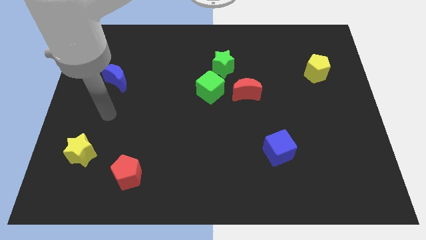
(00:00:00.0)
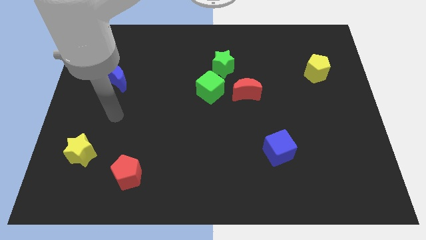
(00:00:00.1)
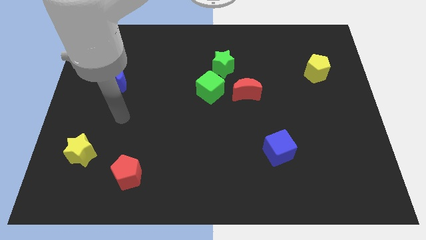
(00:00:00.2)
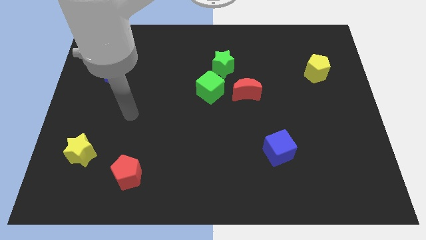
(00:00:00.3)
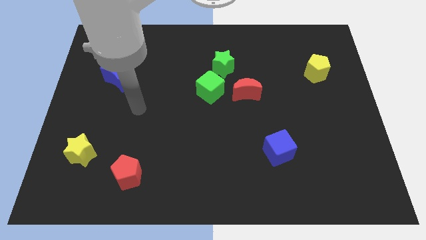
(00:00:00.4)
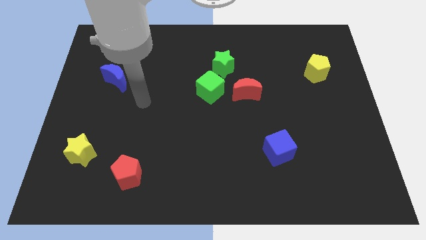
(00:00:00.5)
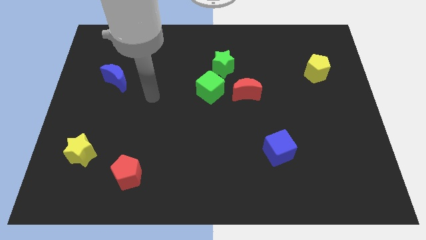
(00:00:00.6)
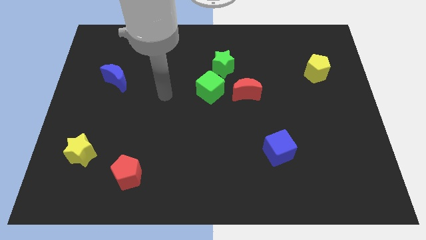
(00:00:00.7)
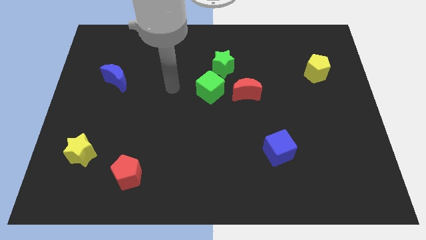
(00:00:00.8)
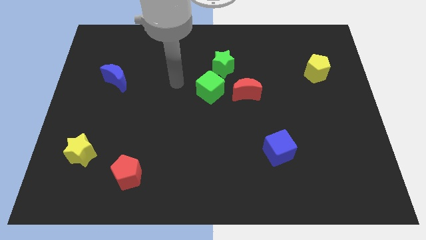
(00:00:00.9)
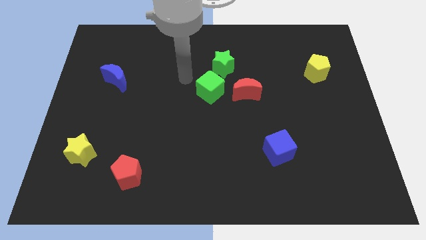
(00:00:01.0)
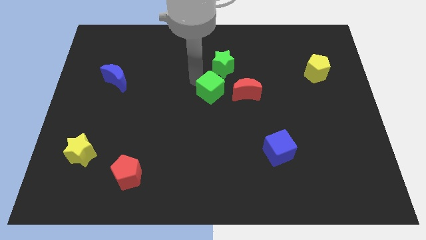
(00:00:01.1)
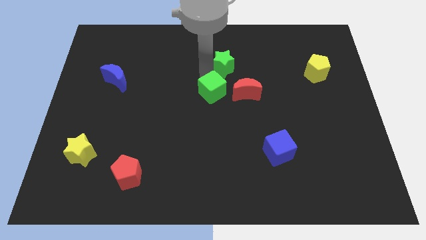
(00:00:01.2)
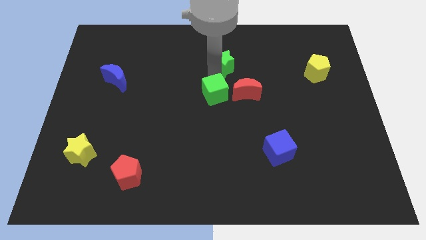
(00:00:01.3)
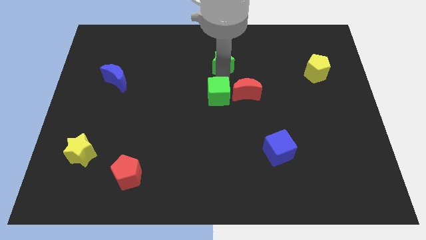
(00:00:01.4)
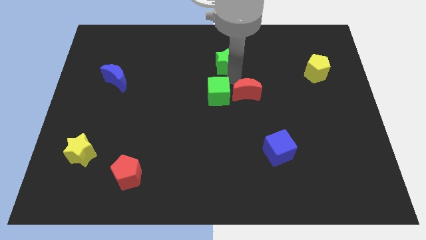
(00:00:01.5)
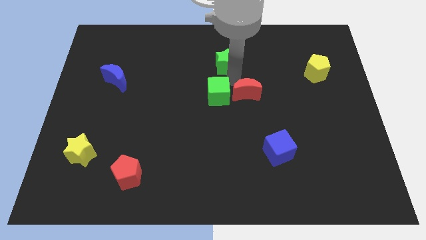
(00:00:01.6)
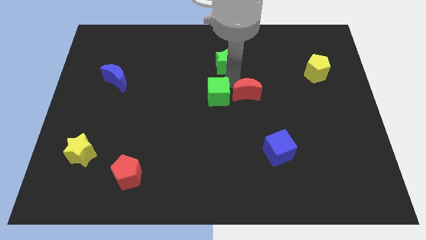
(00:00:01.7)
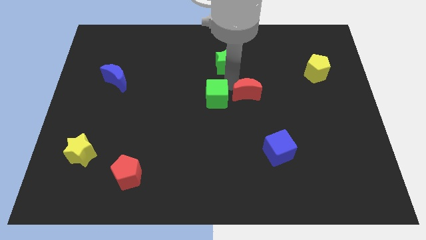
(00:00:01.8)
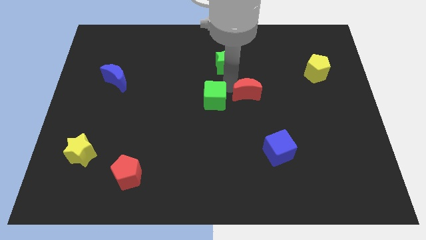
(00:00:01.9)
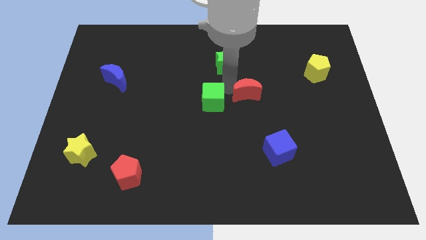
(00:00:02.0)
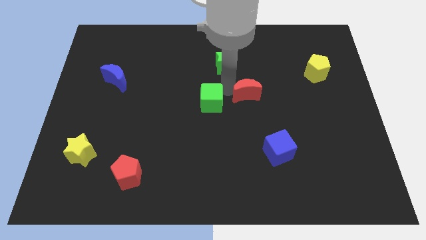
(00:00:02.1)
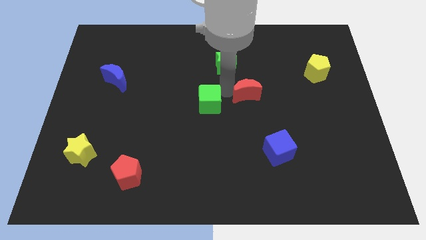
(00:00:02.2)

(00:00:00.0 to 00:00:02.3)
move the green cube away from the green star and red moon

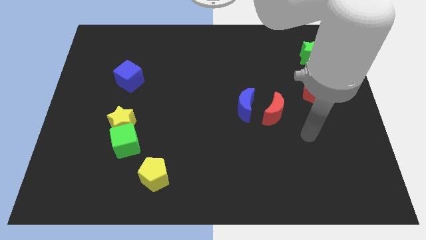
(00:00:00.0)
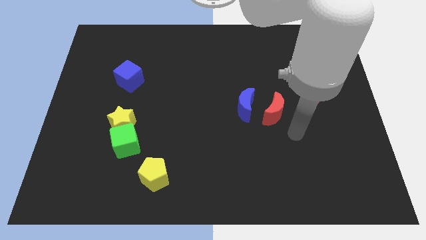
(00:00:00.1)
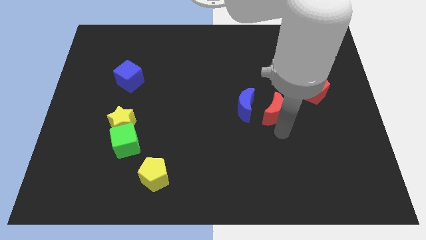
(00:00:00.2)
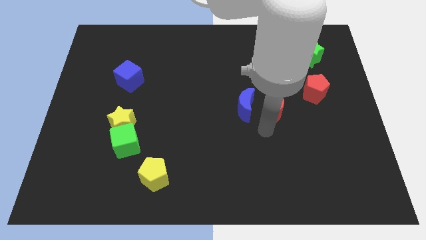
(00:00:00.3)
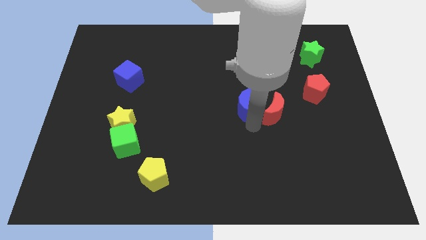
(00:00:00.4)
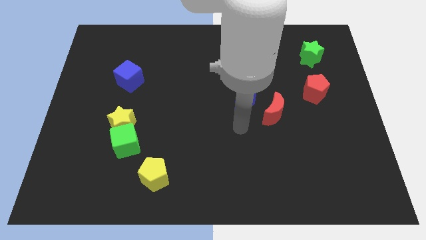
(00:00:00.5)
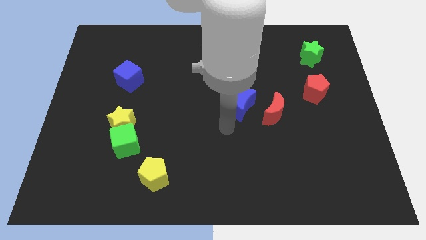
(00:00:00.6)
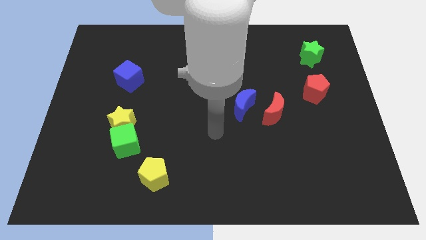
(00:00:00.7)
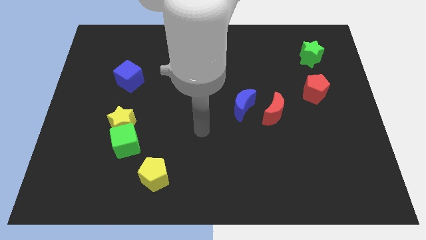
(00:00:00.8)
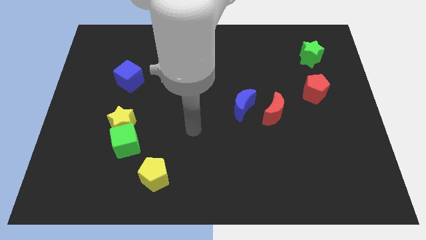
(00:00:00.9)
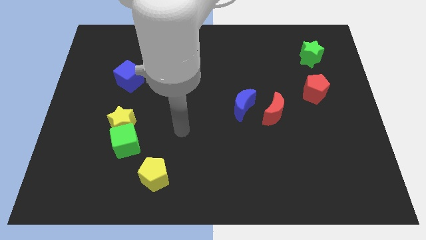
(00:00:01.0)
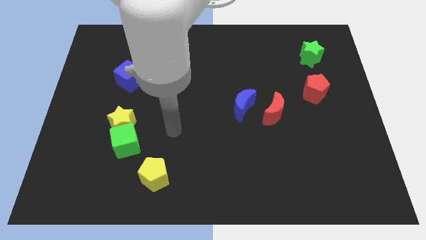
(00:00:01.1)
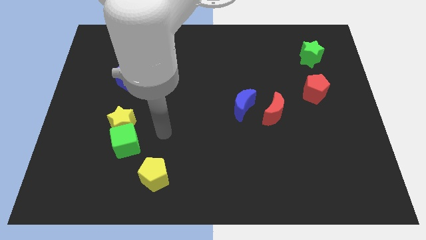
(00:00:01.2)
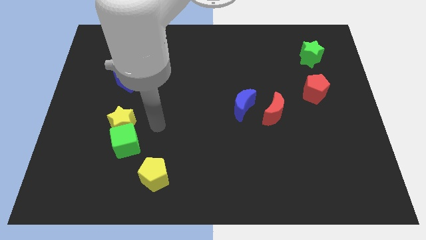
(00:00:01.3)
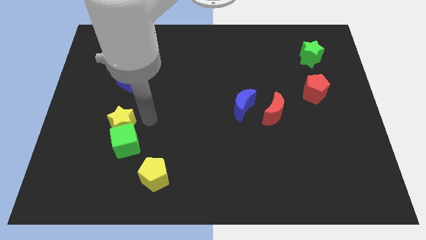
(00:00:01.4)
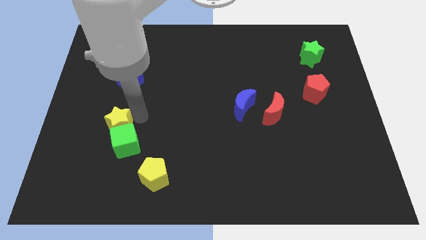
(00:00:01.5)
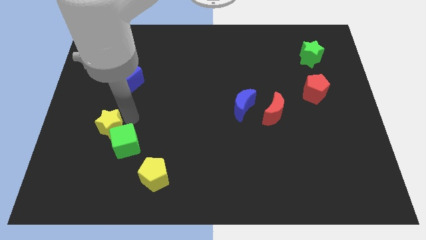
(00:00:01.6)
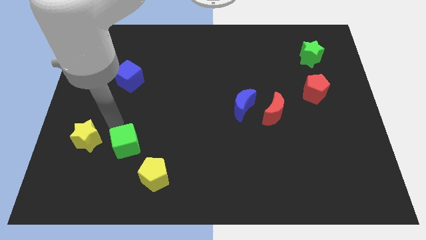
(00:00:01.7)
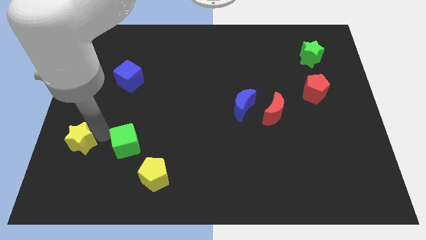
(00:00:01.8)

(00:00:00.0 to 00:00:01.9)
pull the green cube apart from the yellow star

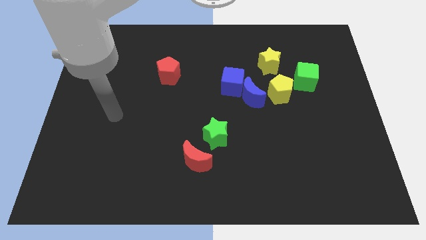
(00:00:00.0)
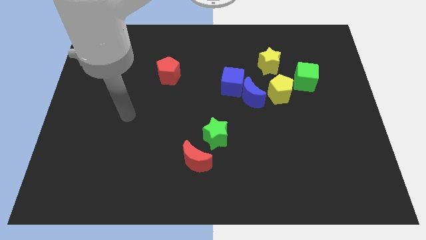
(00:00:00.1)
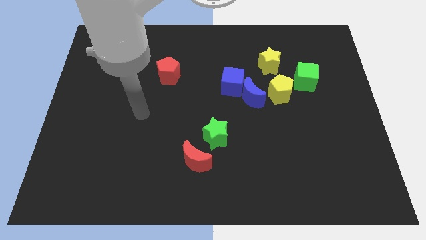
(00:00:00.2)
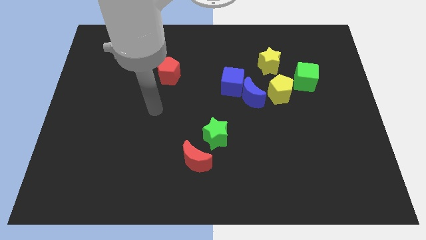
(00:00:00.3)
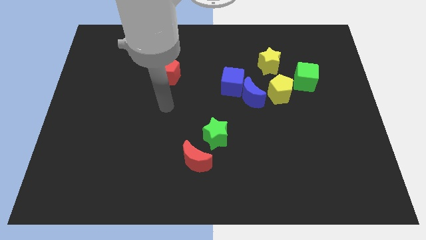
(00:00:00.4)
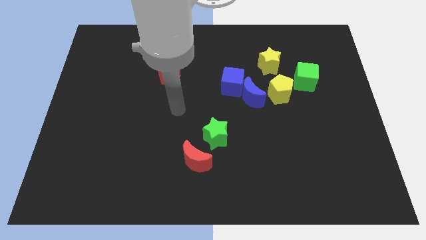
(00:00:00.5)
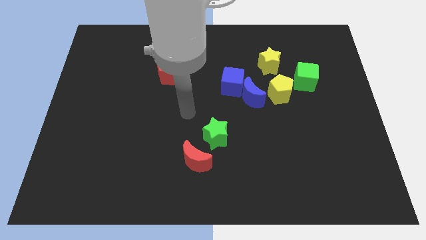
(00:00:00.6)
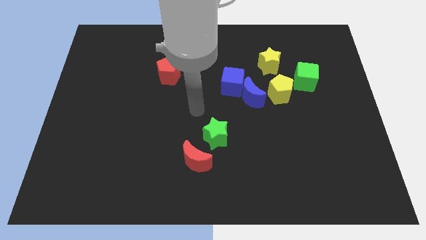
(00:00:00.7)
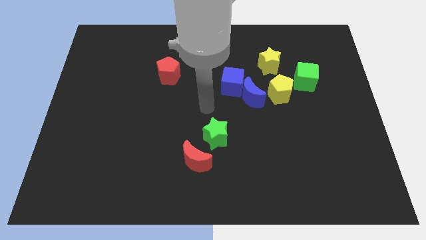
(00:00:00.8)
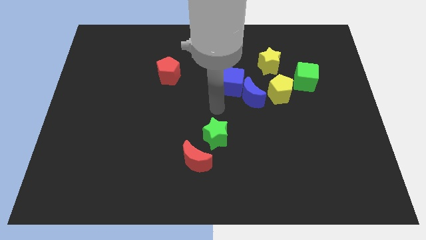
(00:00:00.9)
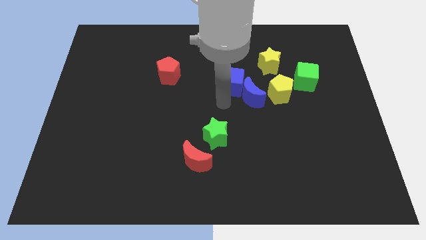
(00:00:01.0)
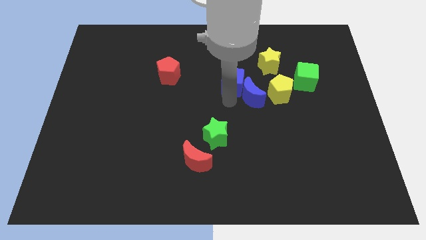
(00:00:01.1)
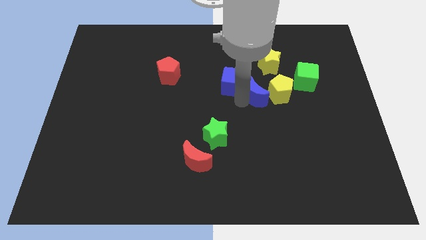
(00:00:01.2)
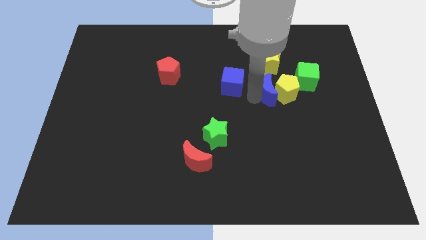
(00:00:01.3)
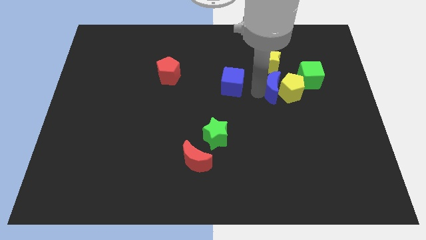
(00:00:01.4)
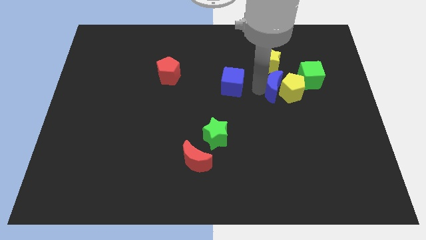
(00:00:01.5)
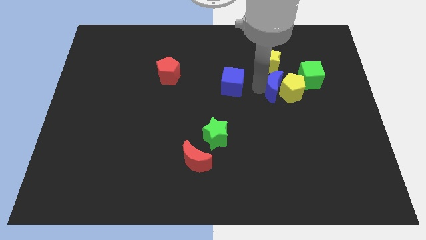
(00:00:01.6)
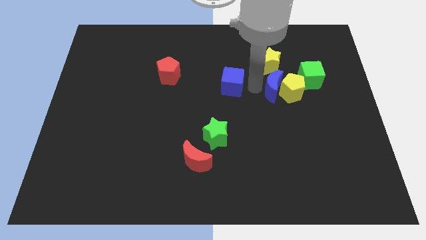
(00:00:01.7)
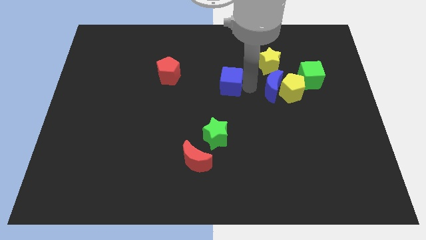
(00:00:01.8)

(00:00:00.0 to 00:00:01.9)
separate the blue cube from the blue moon

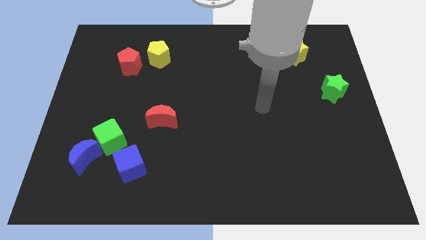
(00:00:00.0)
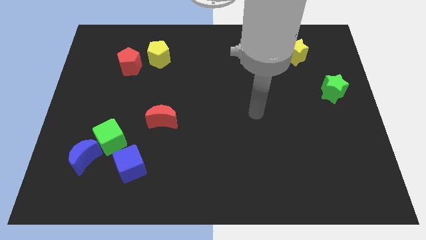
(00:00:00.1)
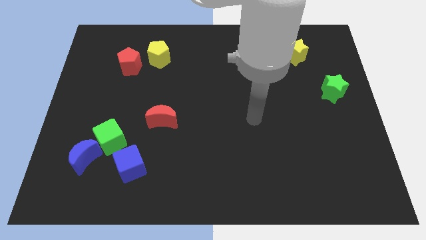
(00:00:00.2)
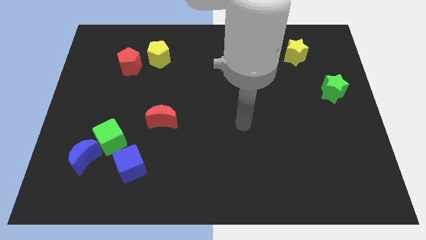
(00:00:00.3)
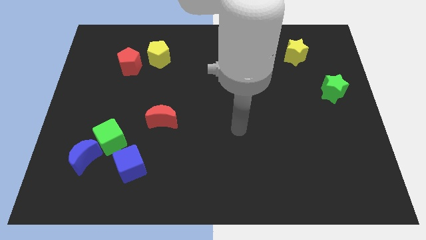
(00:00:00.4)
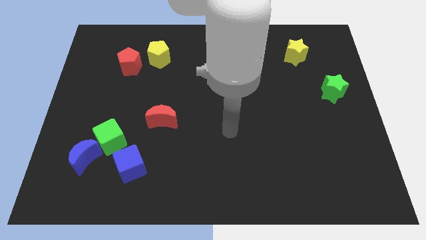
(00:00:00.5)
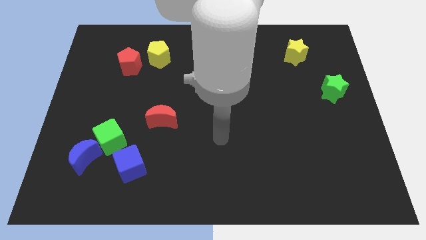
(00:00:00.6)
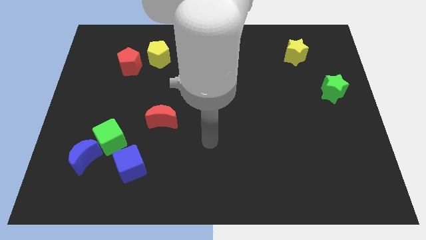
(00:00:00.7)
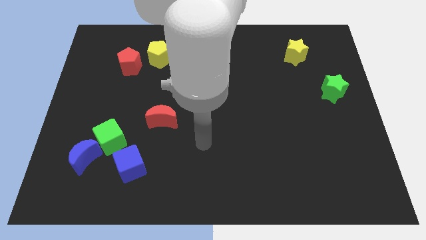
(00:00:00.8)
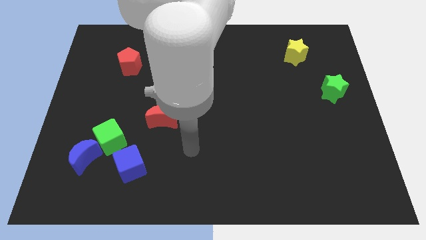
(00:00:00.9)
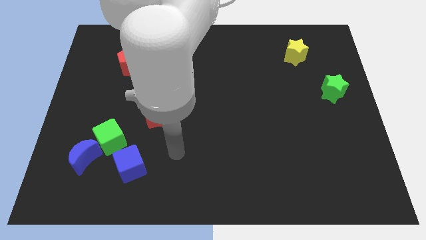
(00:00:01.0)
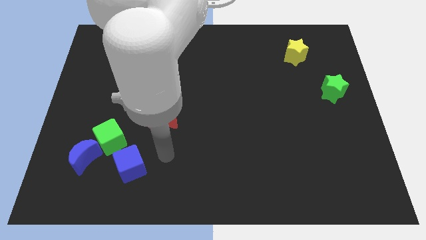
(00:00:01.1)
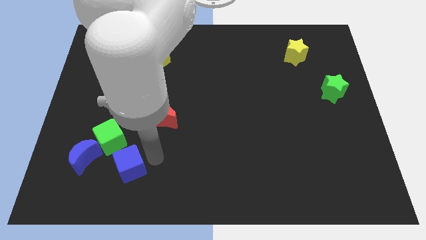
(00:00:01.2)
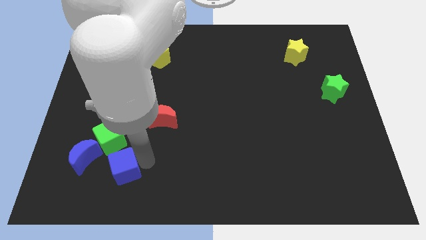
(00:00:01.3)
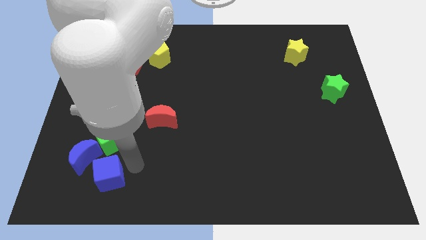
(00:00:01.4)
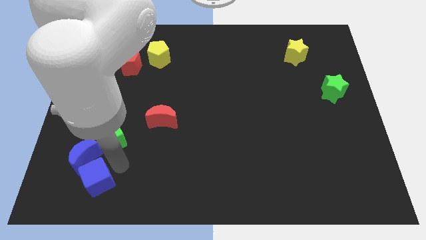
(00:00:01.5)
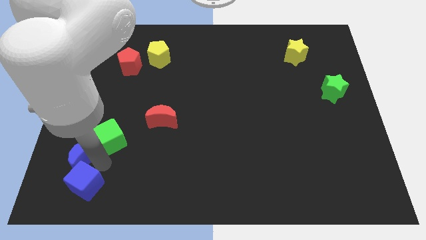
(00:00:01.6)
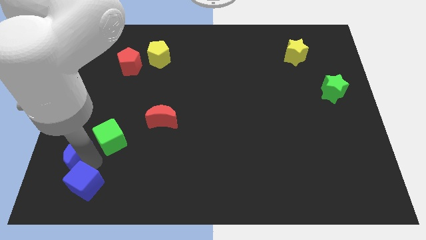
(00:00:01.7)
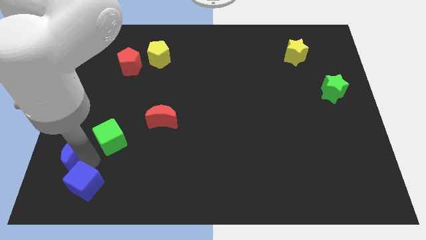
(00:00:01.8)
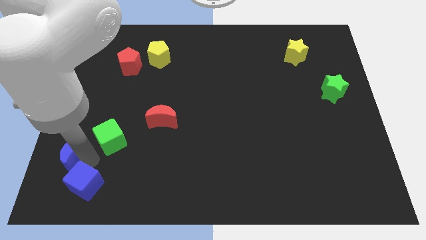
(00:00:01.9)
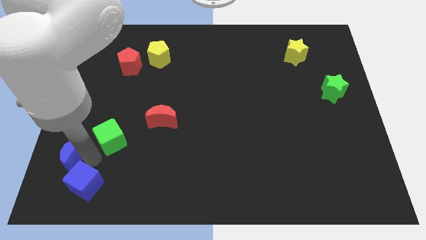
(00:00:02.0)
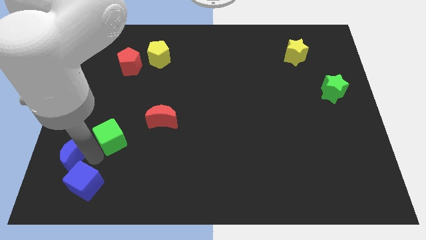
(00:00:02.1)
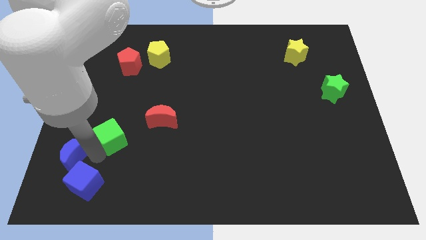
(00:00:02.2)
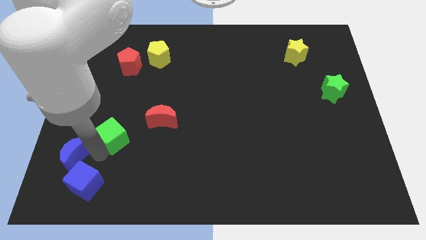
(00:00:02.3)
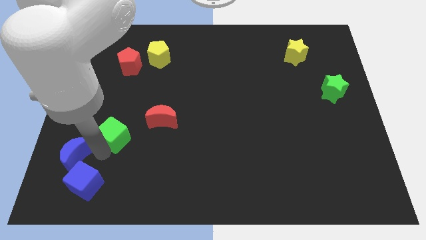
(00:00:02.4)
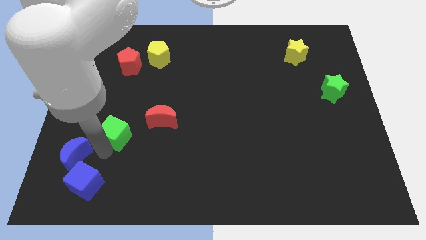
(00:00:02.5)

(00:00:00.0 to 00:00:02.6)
pull the green cube apart from the blue moon and blue cube

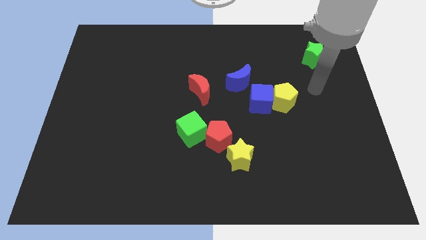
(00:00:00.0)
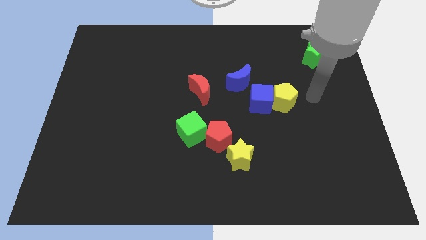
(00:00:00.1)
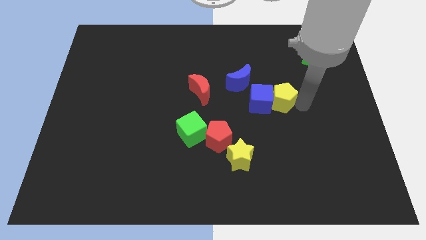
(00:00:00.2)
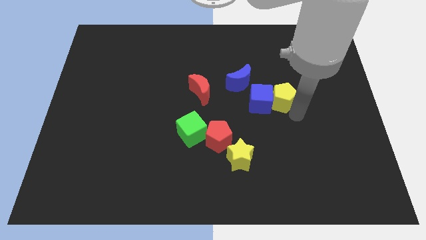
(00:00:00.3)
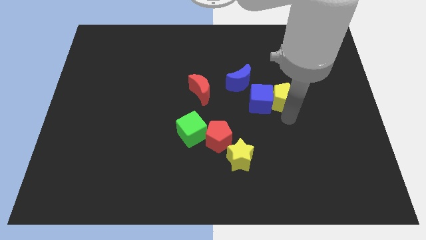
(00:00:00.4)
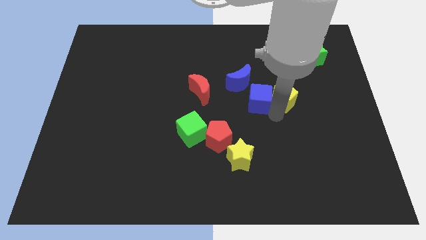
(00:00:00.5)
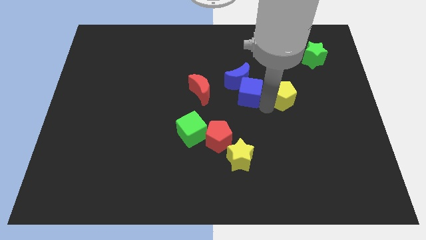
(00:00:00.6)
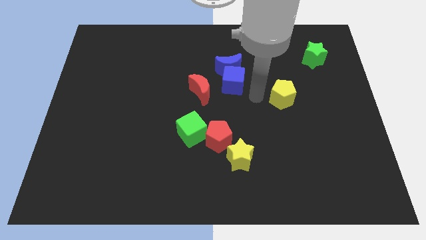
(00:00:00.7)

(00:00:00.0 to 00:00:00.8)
separate the yellow pentagon from the blue cube
